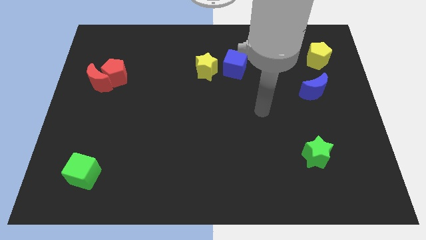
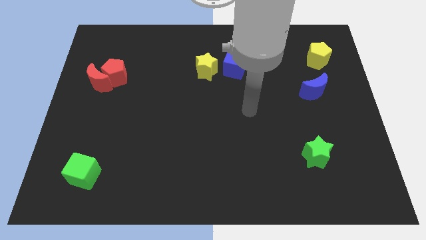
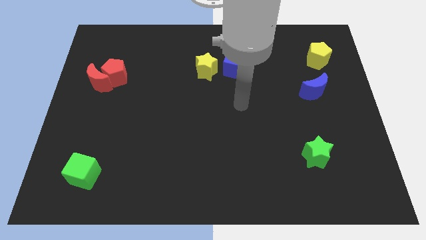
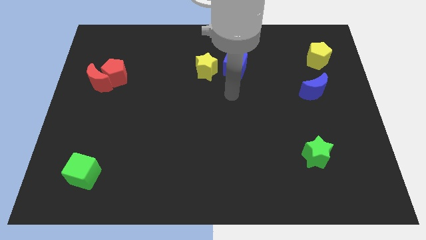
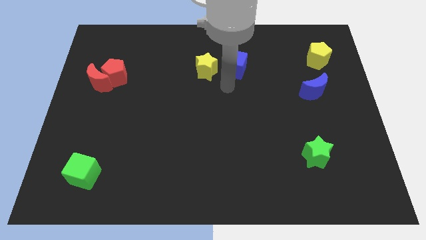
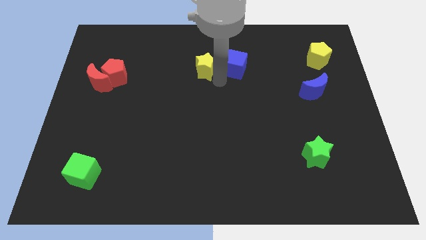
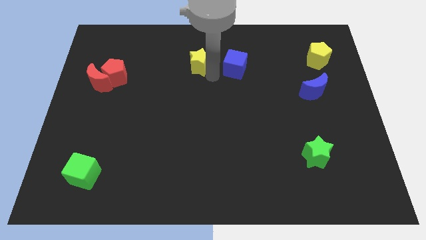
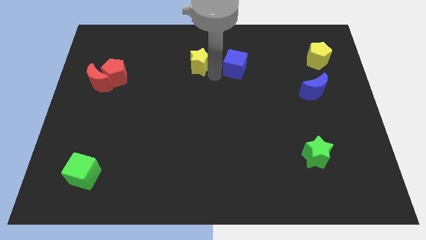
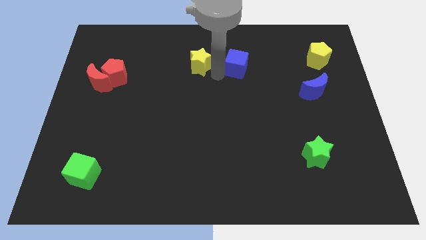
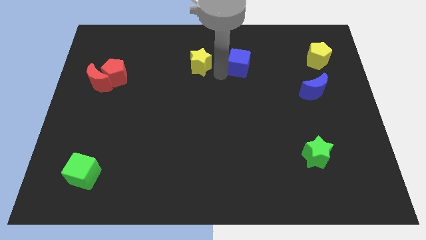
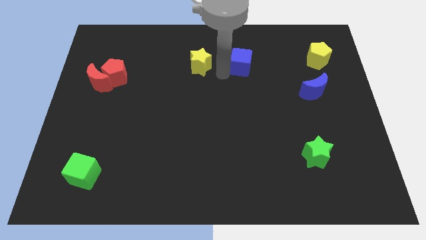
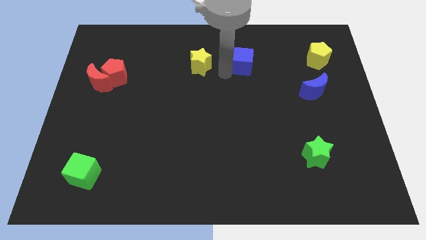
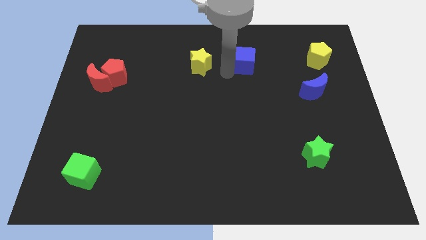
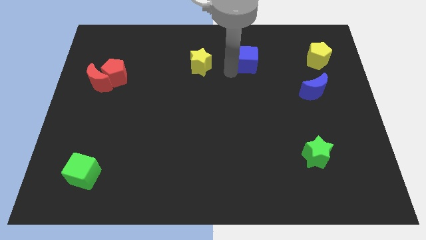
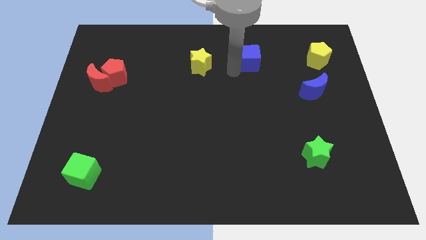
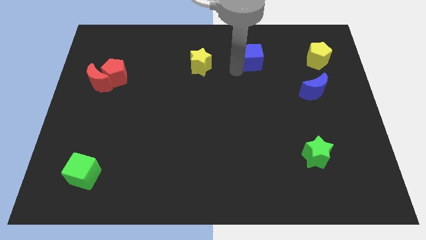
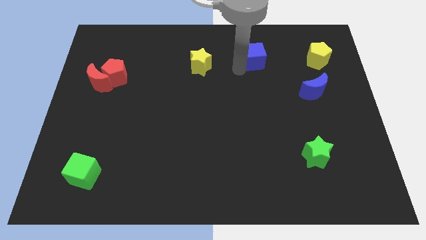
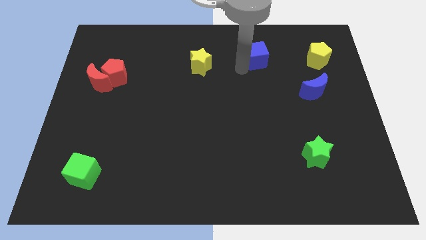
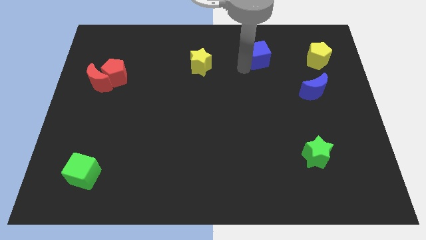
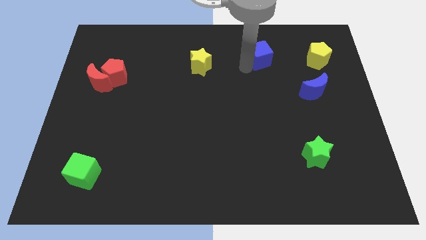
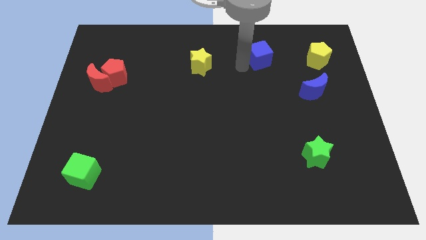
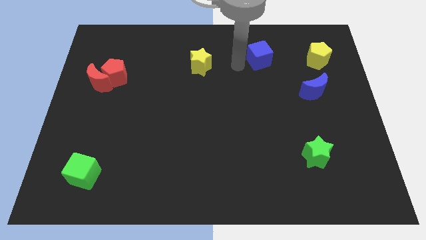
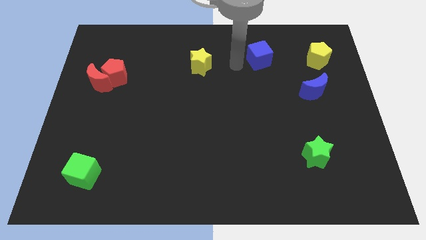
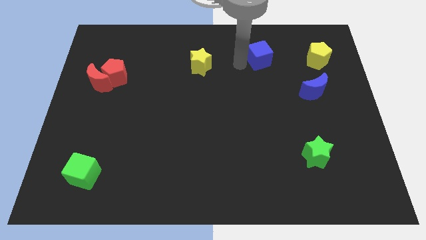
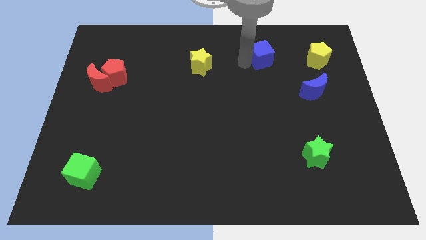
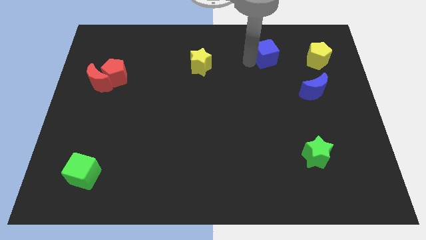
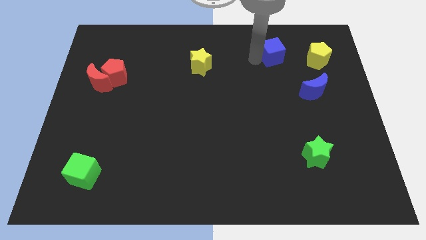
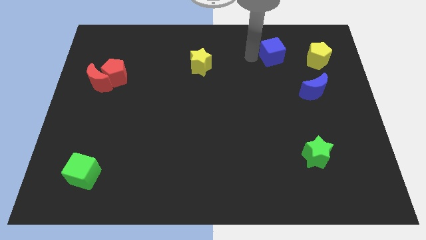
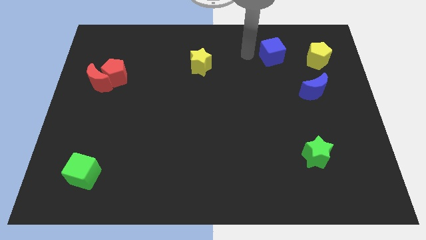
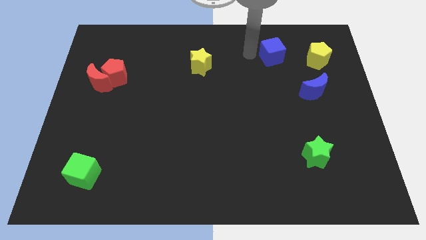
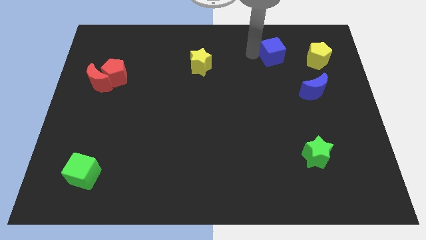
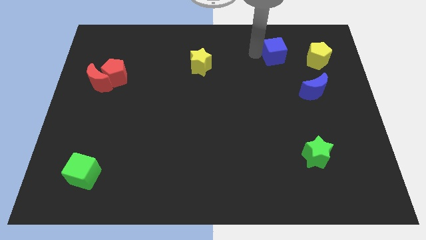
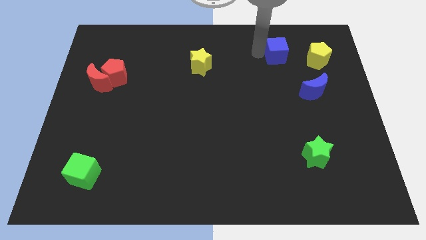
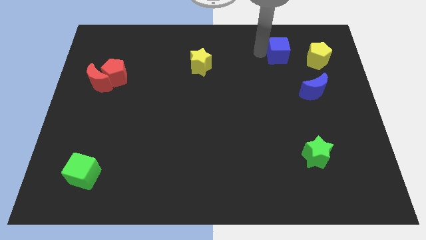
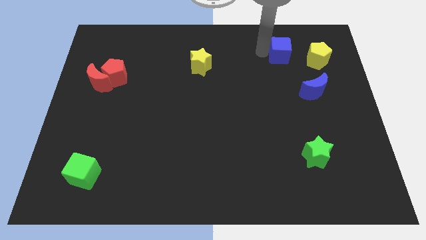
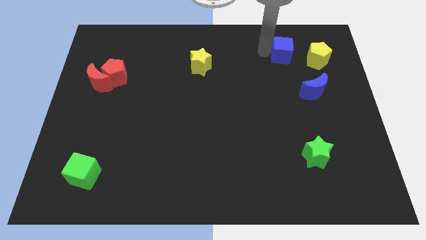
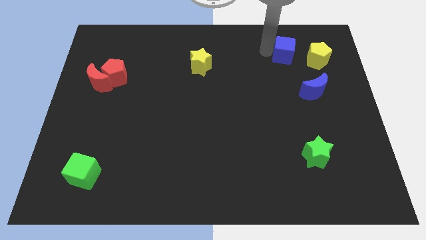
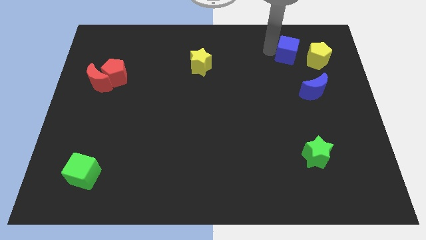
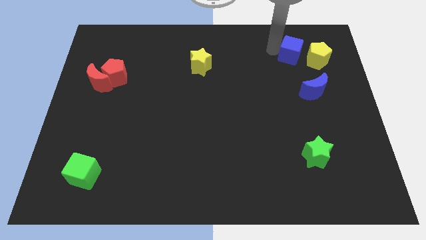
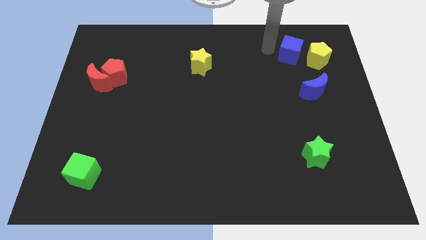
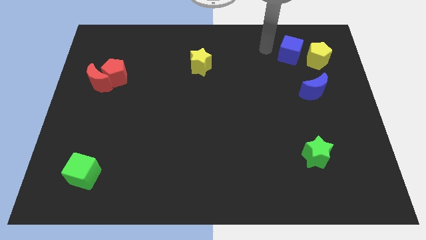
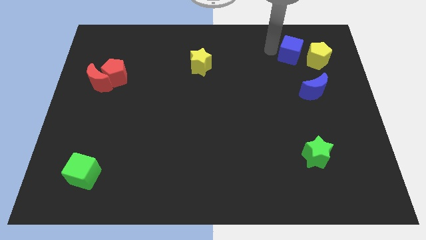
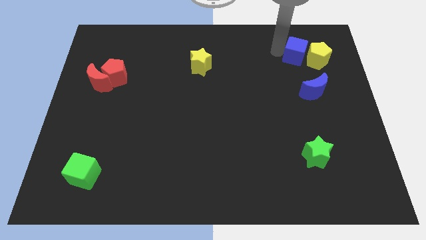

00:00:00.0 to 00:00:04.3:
slide the blue cube next to the yellow pentagon

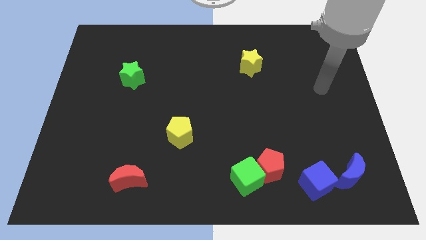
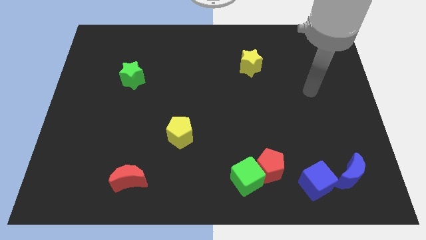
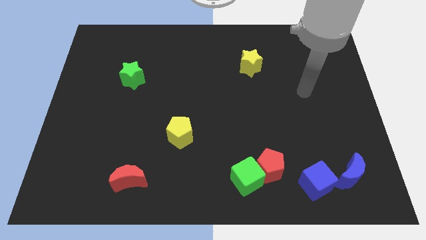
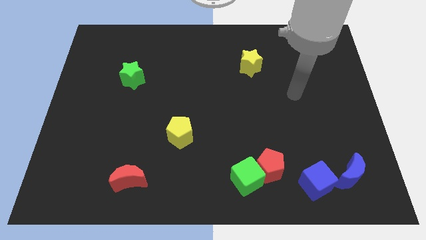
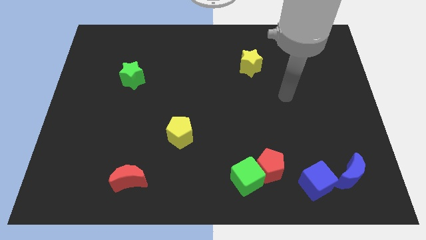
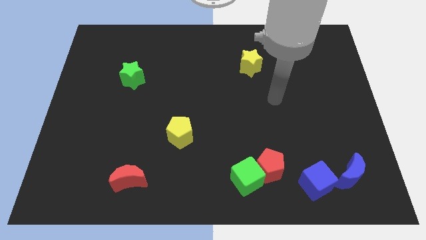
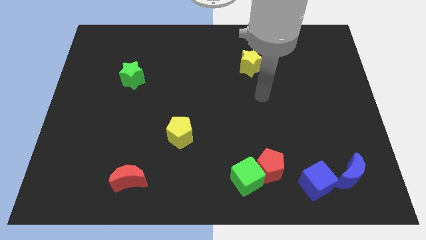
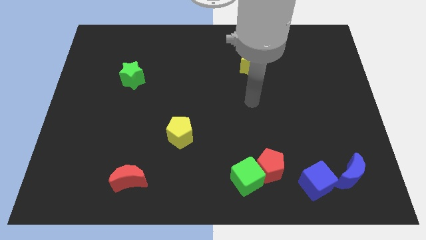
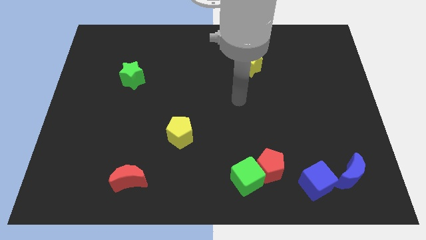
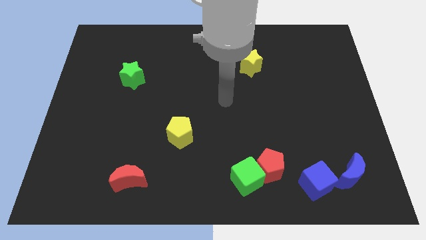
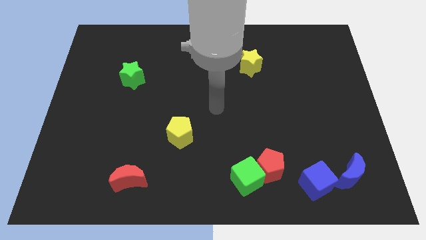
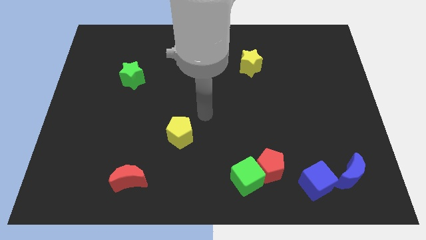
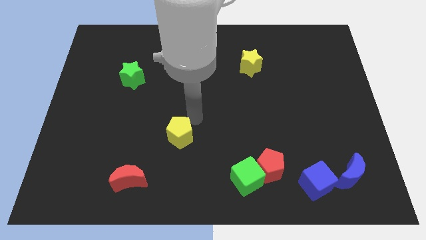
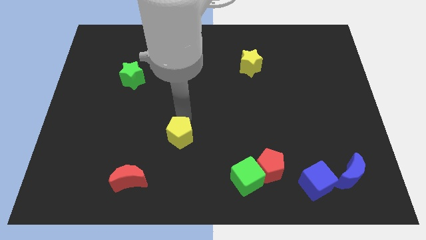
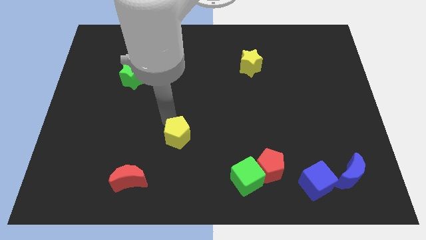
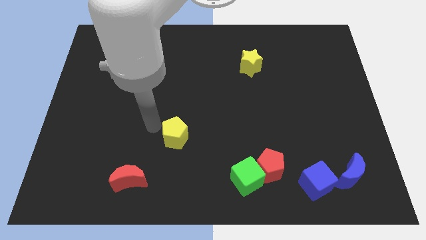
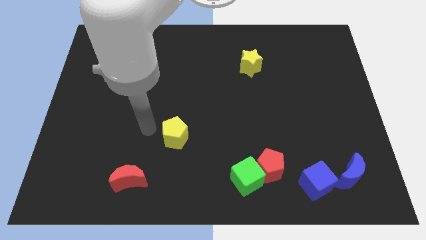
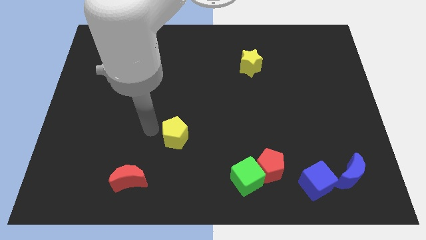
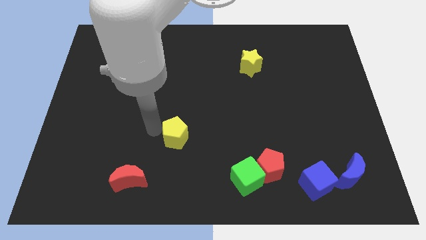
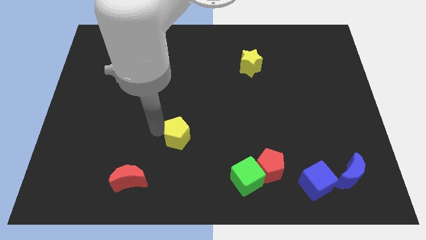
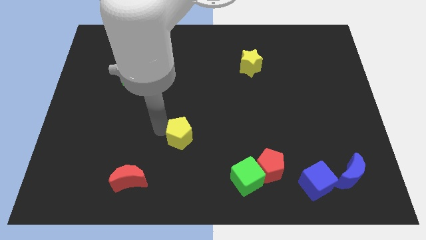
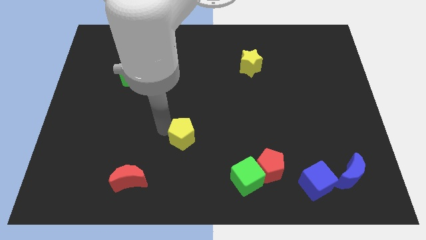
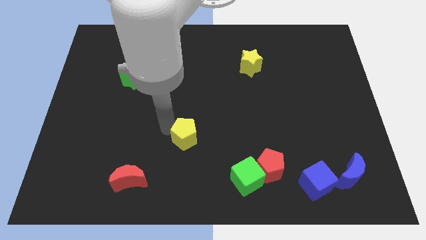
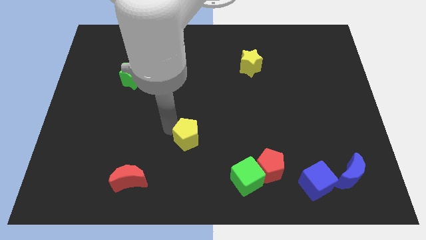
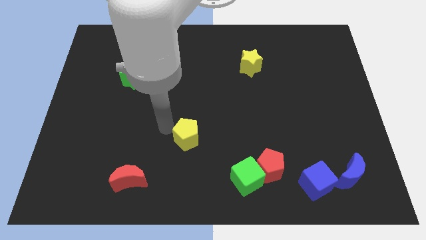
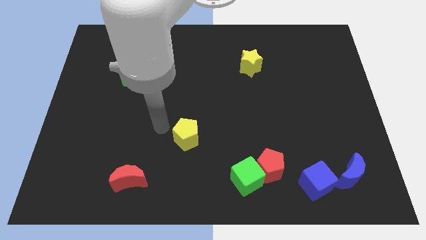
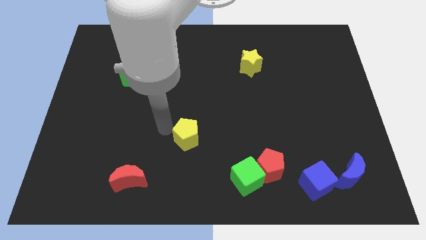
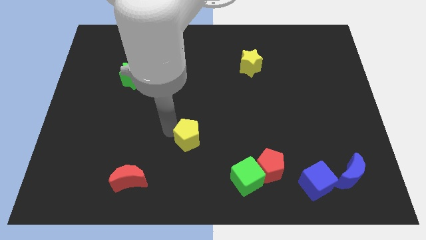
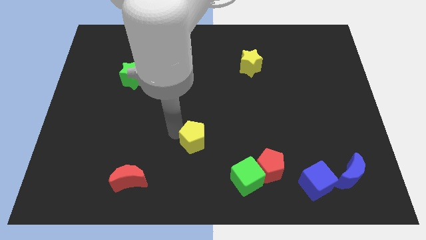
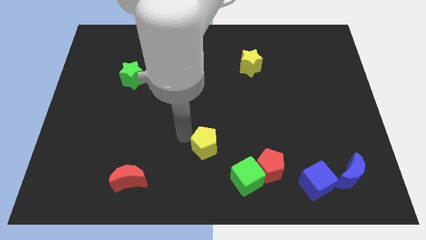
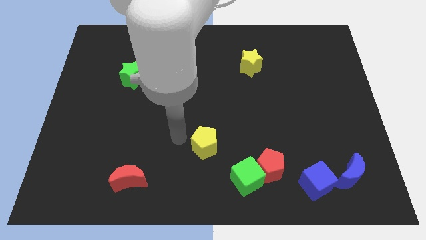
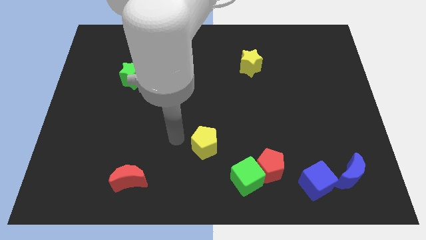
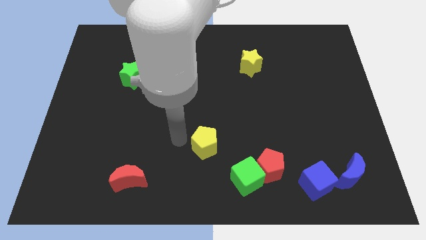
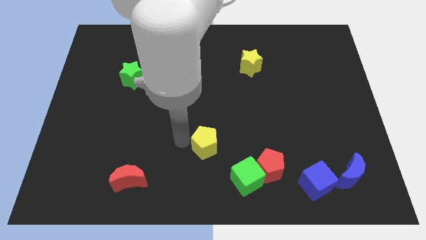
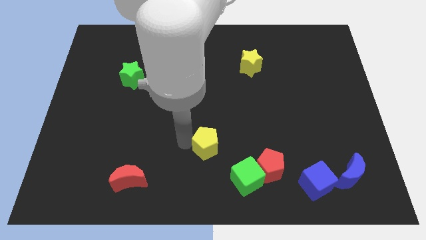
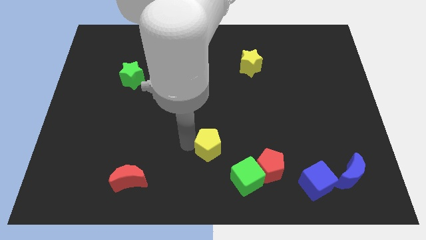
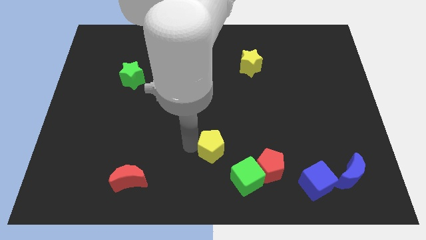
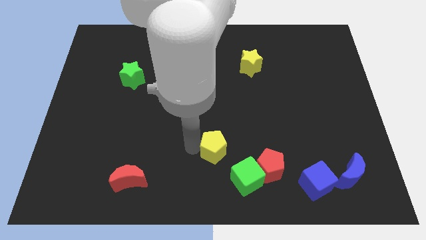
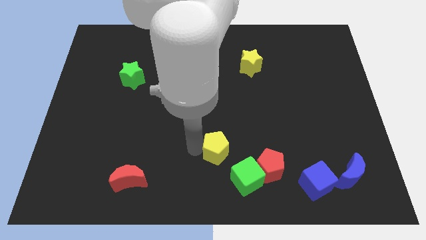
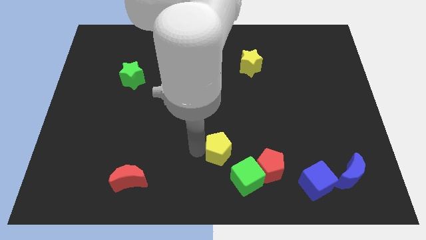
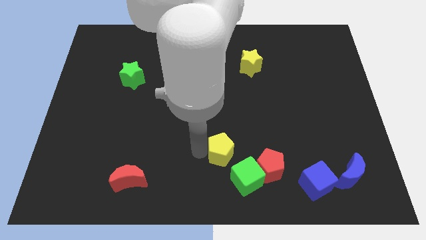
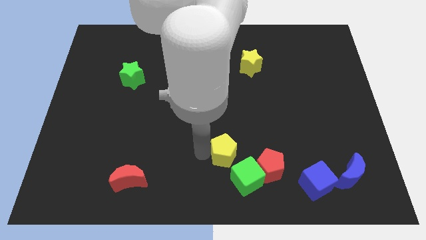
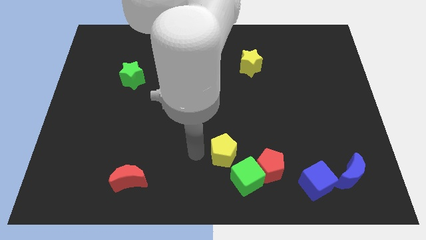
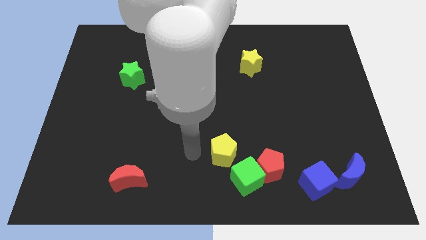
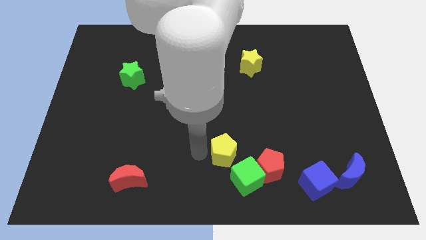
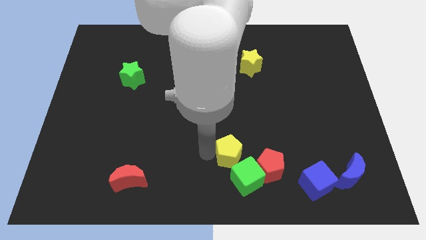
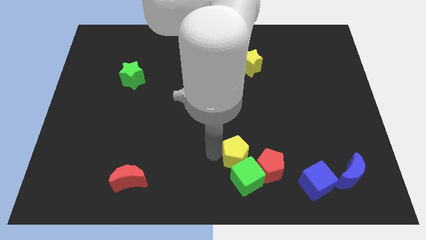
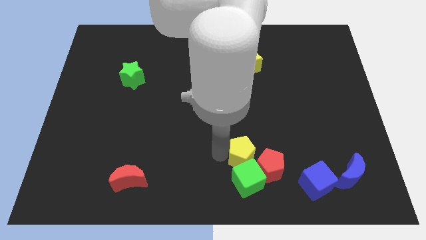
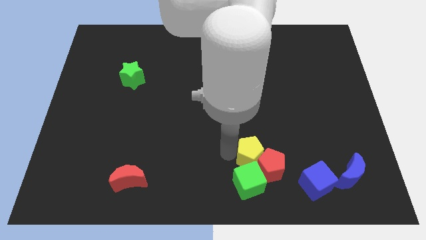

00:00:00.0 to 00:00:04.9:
move the yellow pentagon next to the red pentagon
